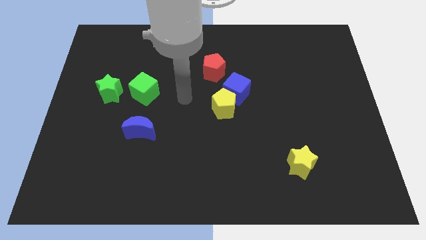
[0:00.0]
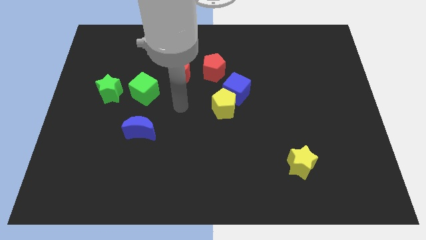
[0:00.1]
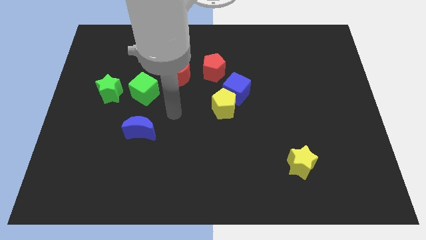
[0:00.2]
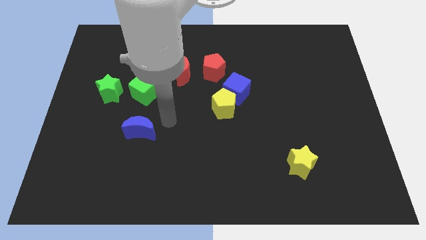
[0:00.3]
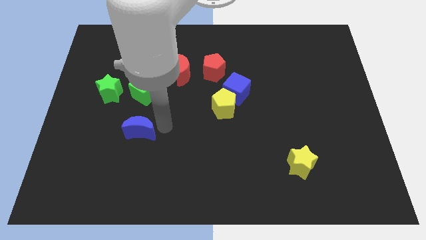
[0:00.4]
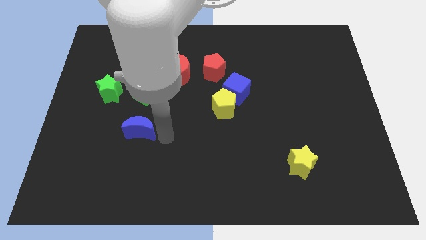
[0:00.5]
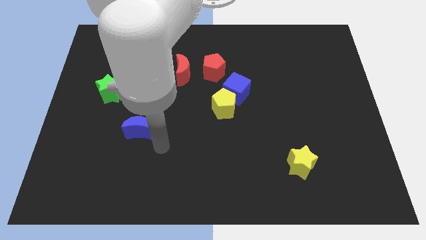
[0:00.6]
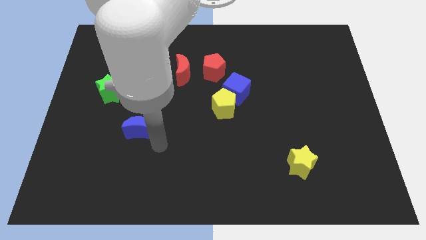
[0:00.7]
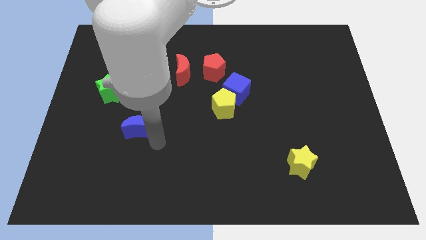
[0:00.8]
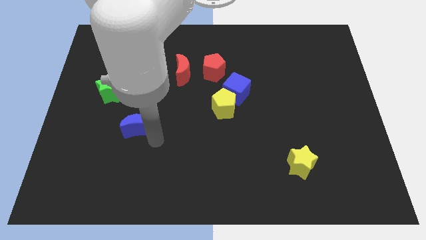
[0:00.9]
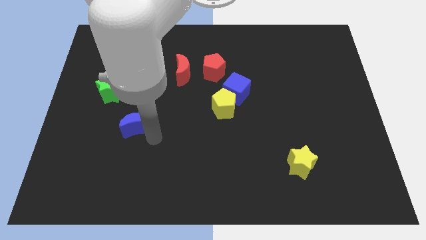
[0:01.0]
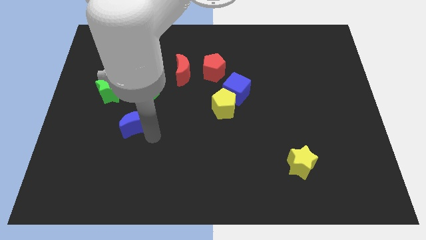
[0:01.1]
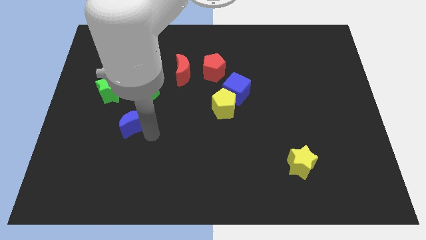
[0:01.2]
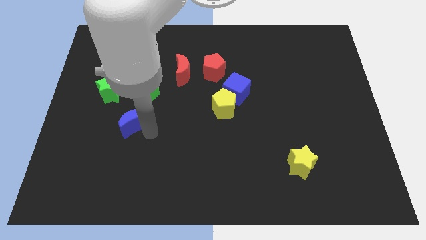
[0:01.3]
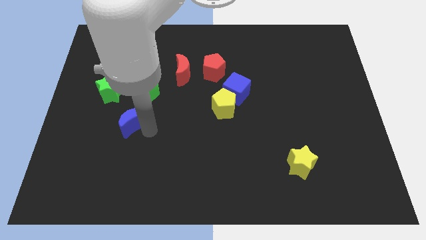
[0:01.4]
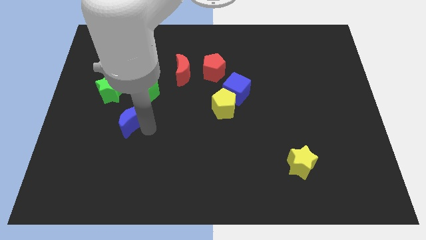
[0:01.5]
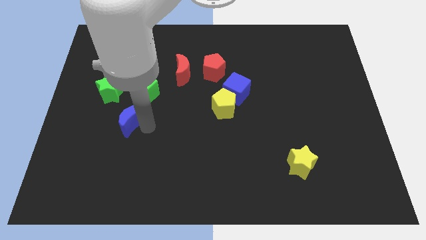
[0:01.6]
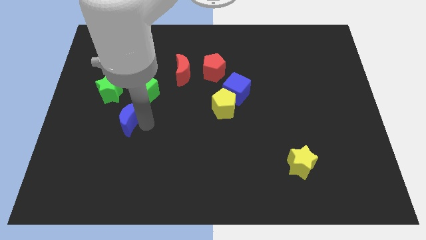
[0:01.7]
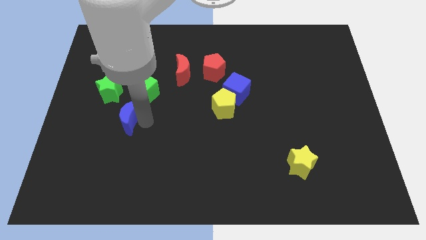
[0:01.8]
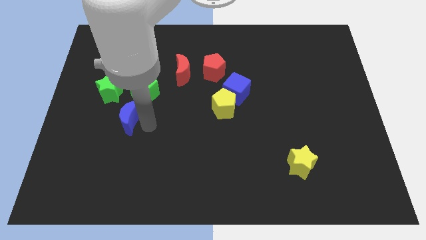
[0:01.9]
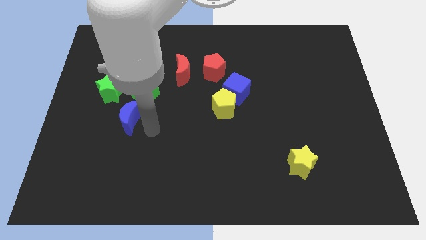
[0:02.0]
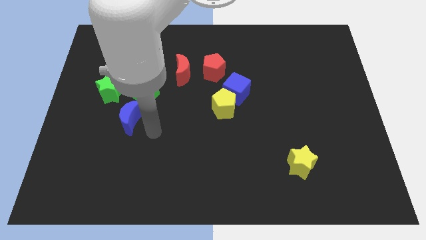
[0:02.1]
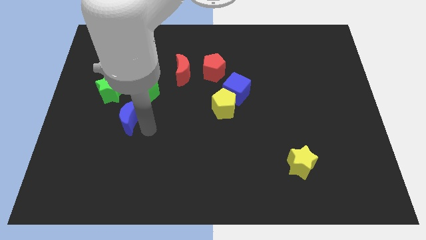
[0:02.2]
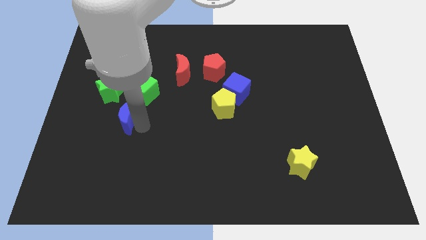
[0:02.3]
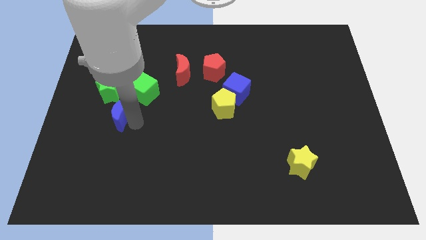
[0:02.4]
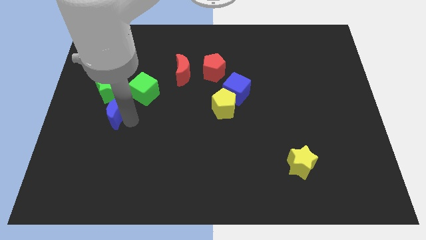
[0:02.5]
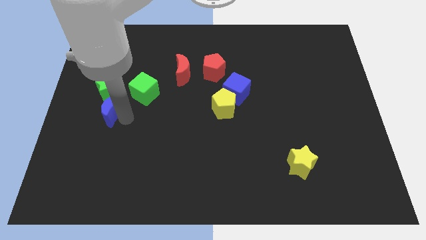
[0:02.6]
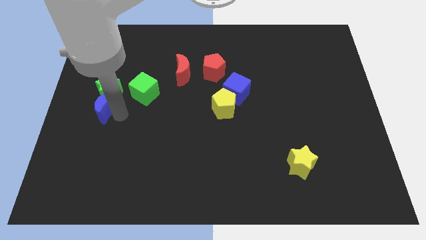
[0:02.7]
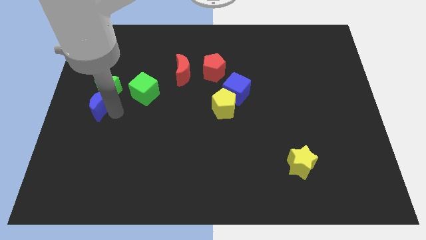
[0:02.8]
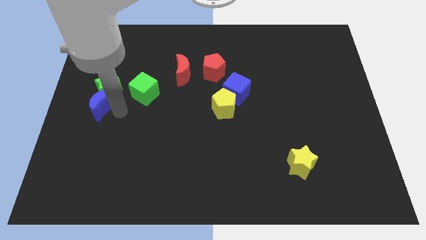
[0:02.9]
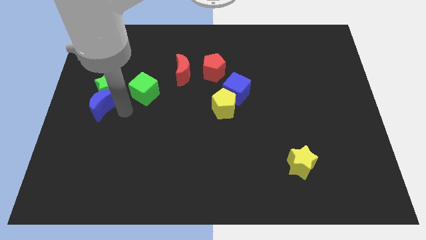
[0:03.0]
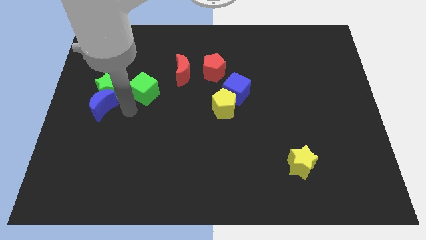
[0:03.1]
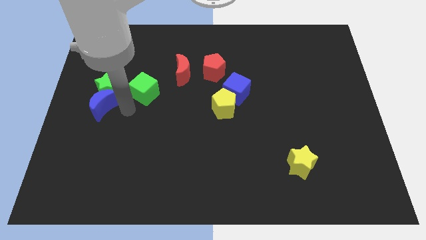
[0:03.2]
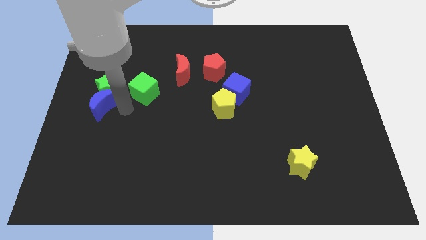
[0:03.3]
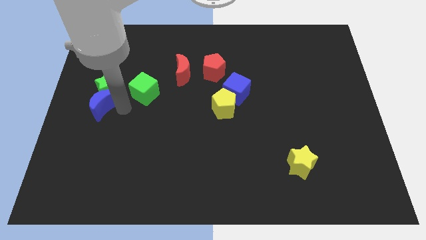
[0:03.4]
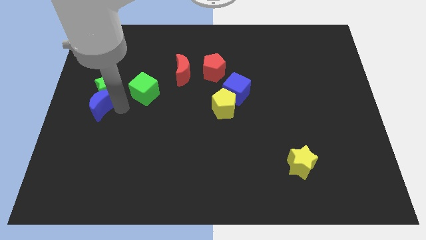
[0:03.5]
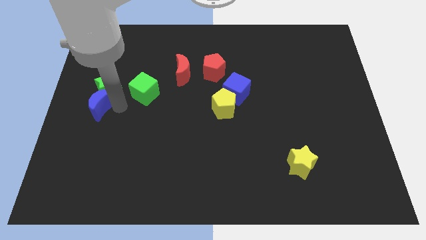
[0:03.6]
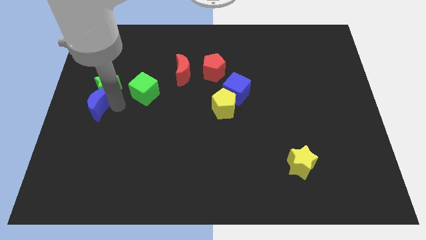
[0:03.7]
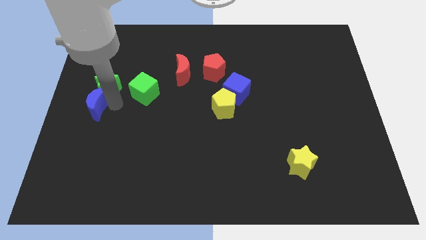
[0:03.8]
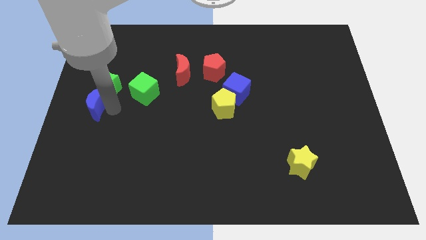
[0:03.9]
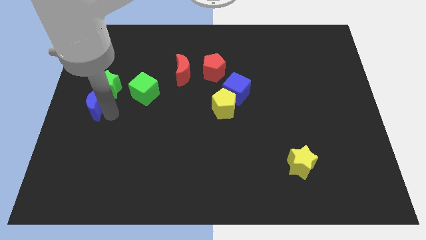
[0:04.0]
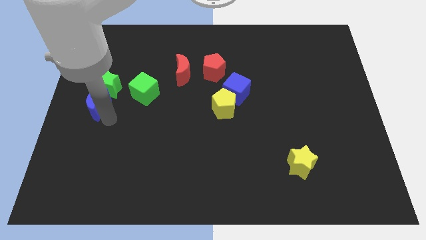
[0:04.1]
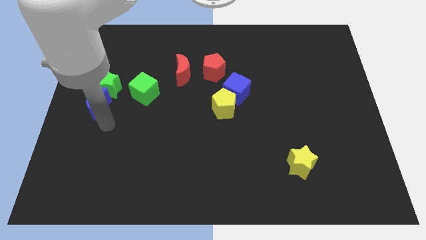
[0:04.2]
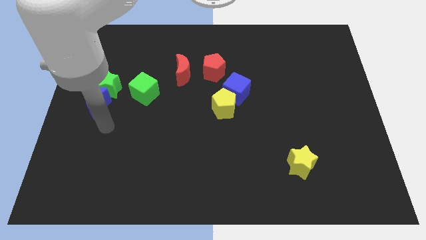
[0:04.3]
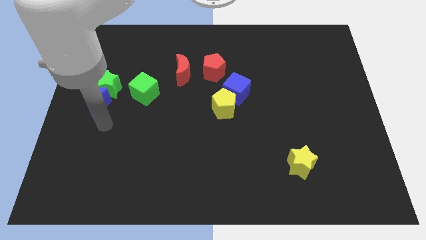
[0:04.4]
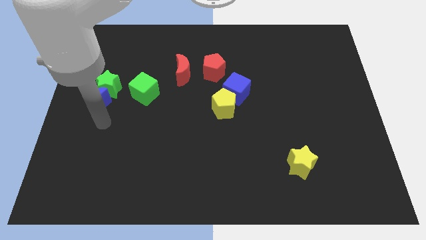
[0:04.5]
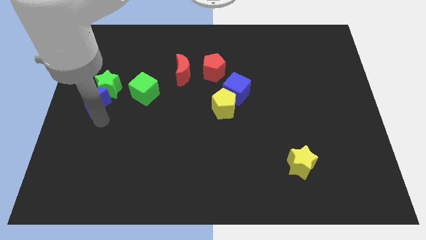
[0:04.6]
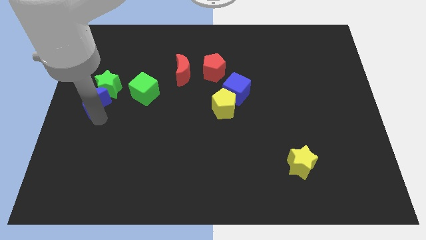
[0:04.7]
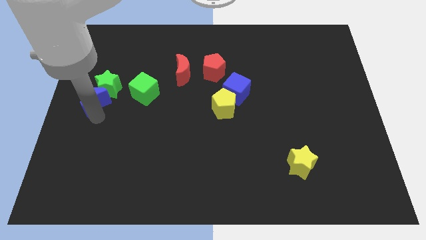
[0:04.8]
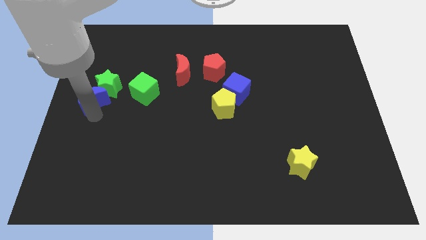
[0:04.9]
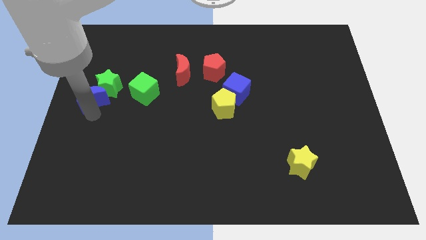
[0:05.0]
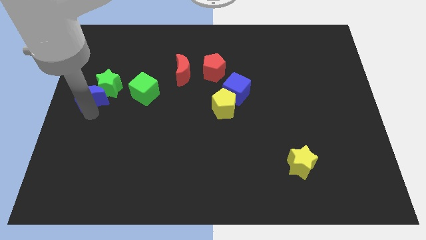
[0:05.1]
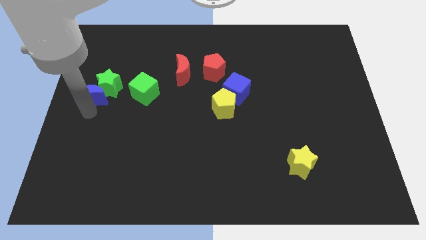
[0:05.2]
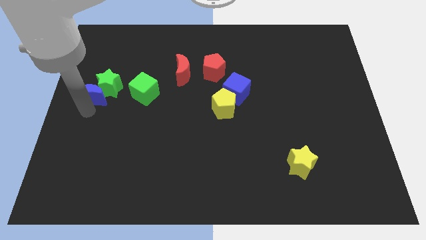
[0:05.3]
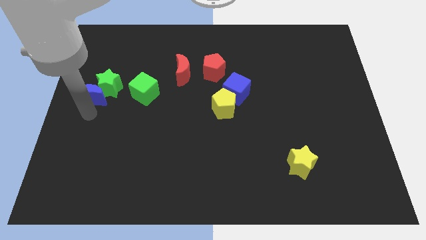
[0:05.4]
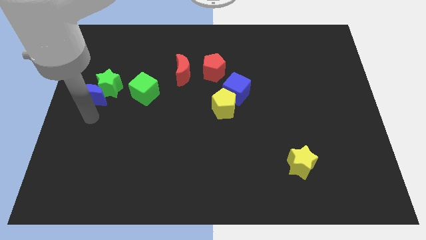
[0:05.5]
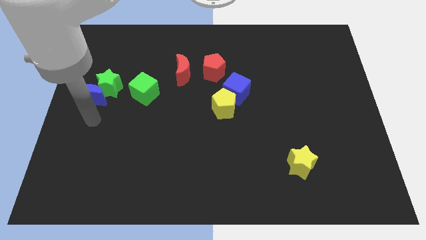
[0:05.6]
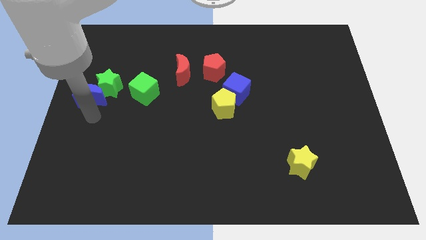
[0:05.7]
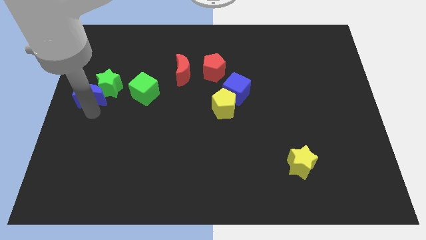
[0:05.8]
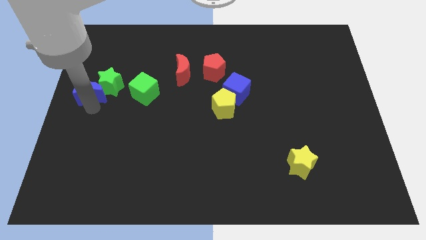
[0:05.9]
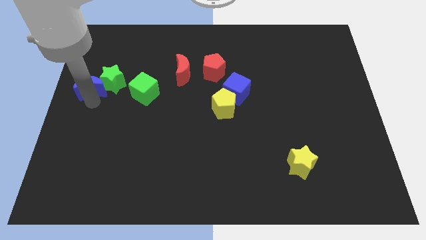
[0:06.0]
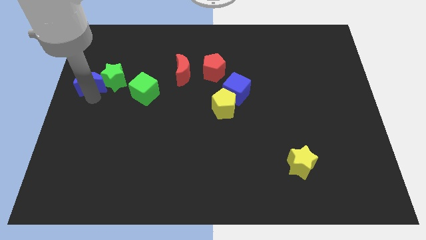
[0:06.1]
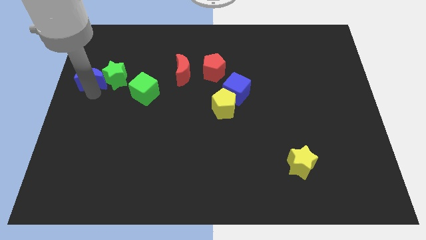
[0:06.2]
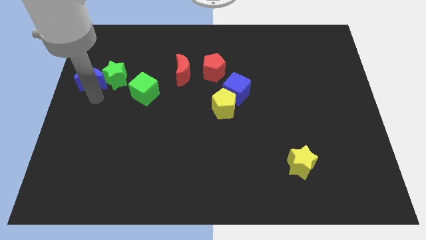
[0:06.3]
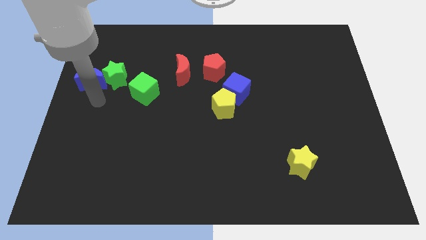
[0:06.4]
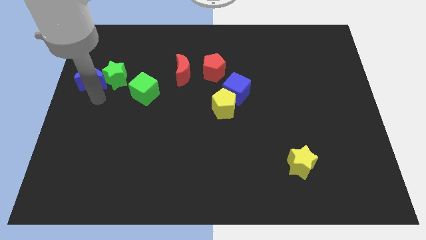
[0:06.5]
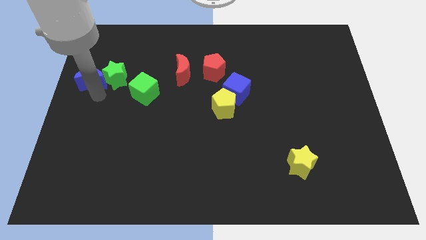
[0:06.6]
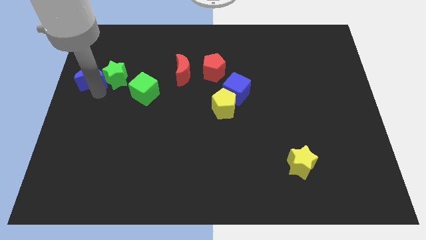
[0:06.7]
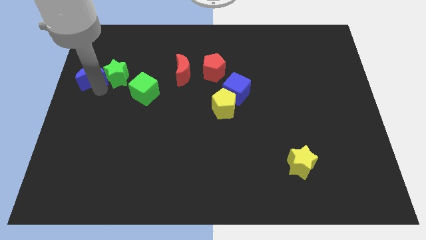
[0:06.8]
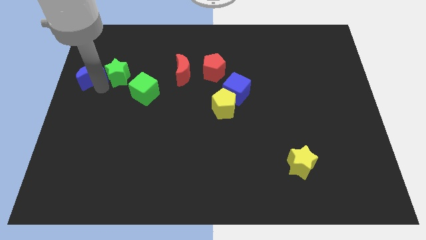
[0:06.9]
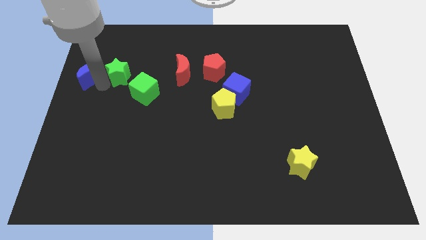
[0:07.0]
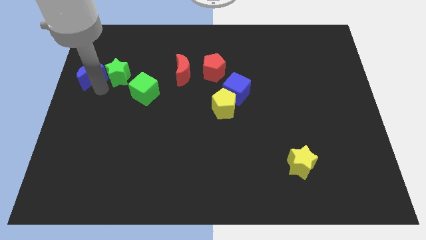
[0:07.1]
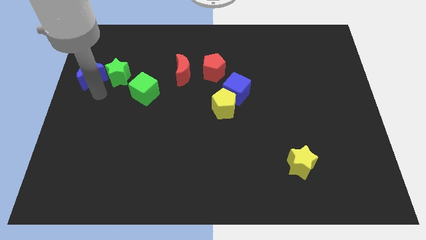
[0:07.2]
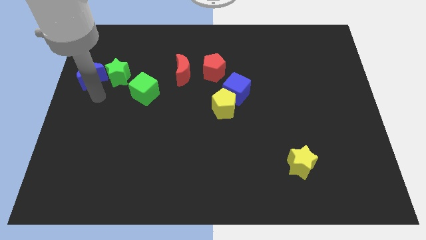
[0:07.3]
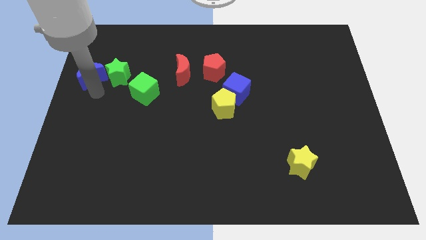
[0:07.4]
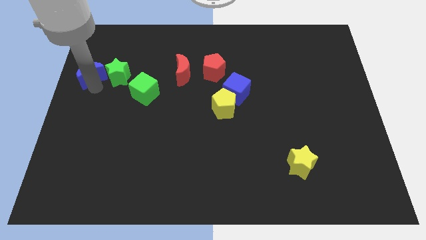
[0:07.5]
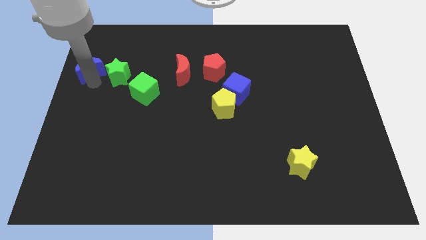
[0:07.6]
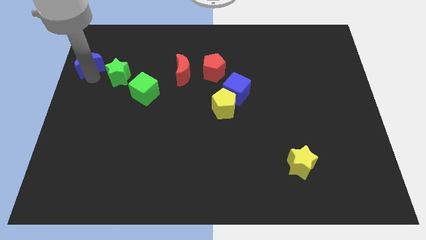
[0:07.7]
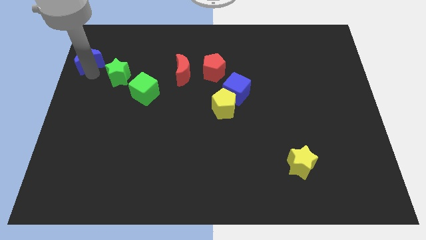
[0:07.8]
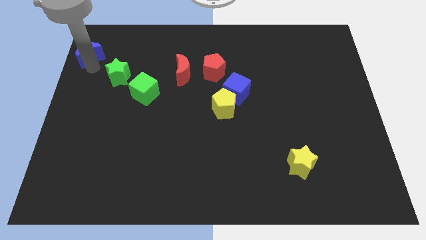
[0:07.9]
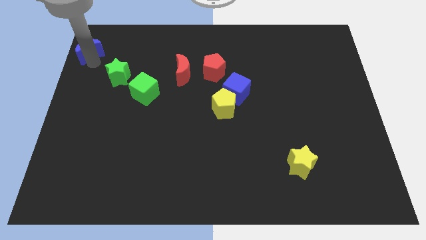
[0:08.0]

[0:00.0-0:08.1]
move the blue moon to the top left of the board
